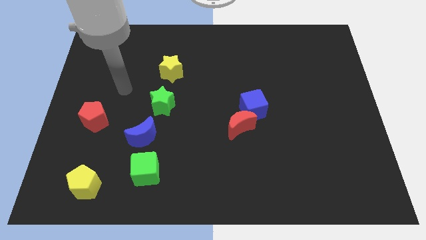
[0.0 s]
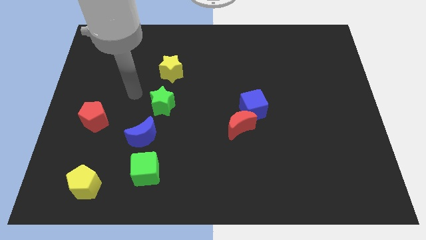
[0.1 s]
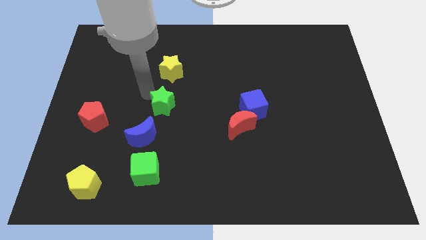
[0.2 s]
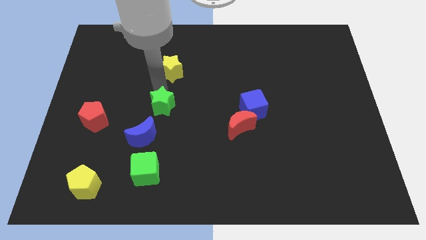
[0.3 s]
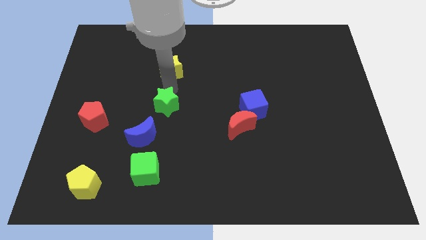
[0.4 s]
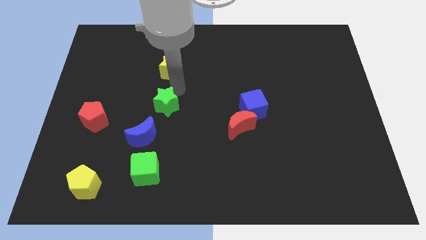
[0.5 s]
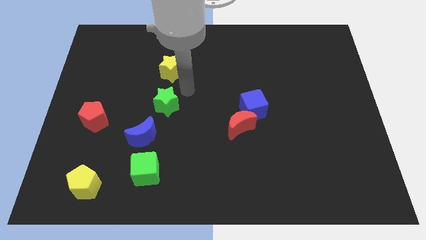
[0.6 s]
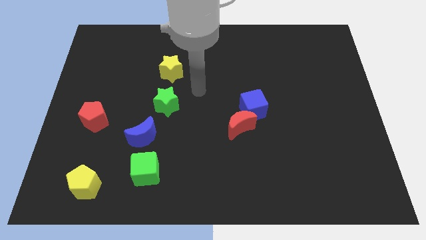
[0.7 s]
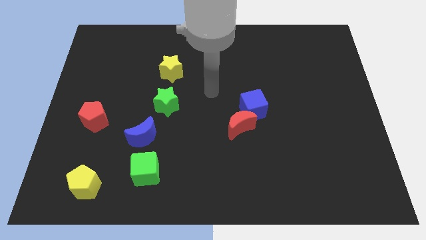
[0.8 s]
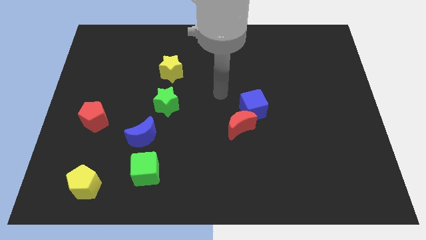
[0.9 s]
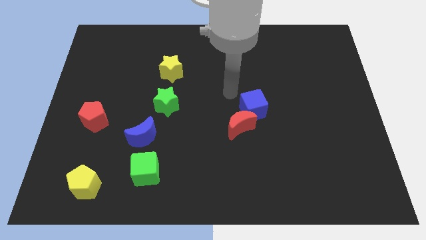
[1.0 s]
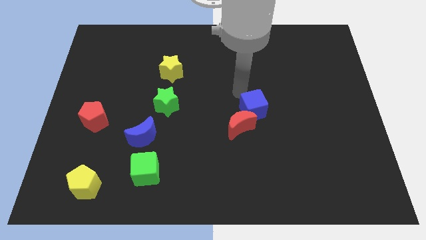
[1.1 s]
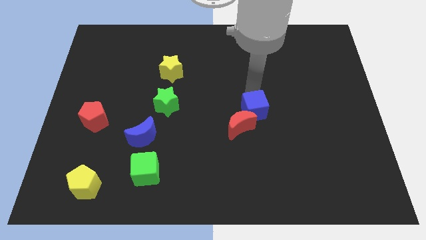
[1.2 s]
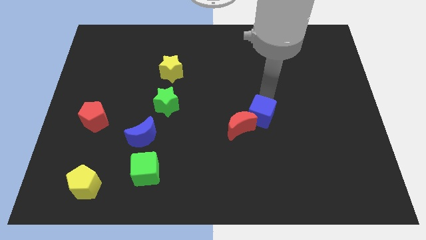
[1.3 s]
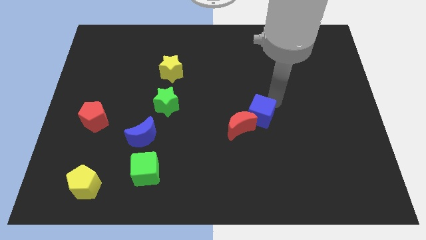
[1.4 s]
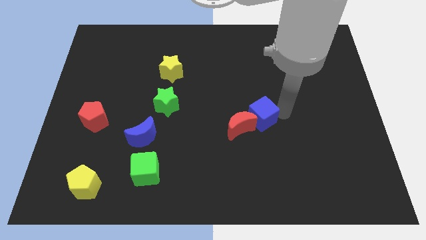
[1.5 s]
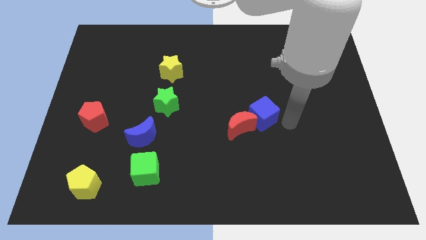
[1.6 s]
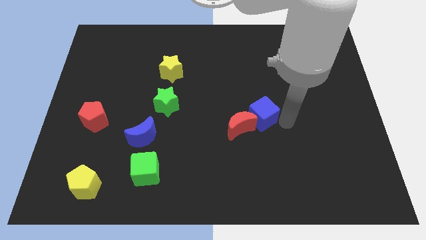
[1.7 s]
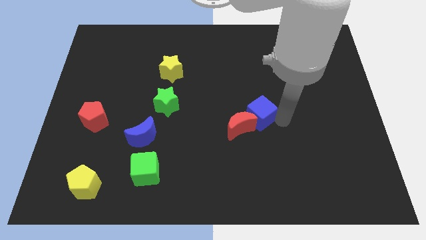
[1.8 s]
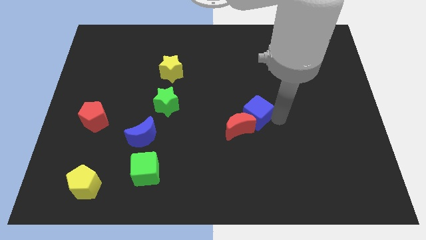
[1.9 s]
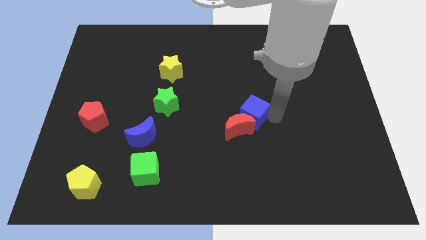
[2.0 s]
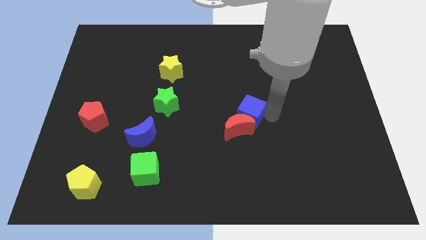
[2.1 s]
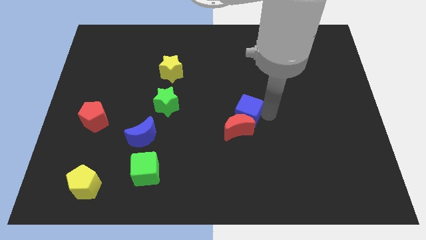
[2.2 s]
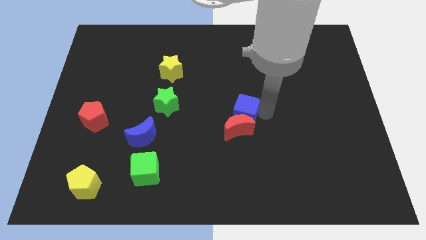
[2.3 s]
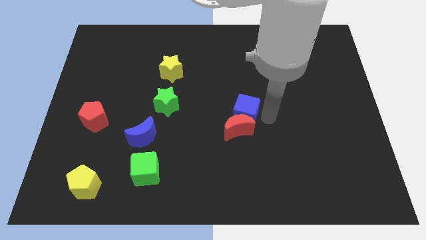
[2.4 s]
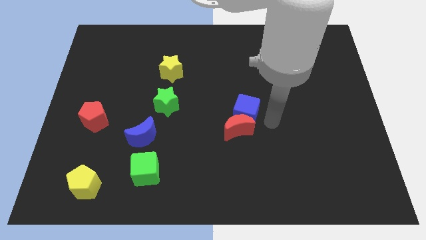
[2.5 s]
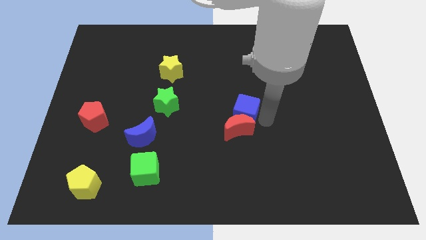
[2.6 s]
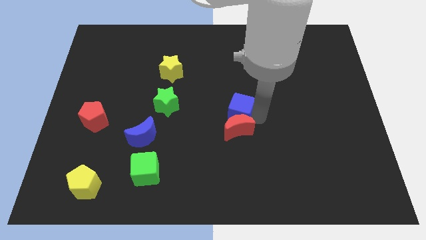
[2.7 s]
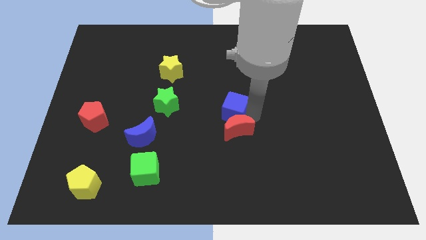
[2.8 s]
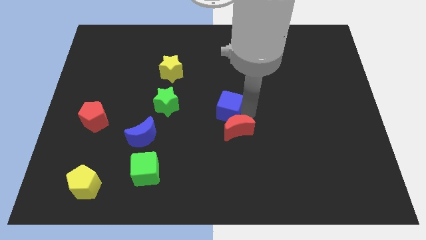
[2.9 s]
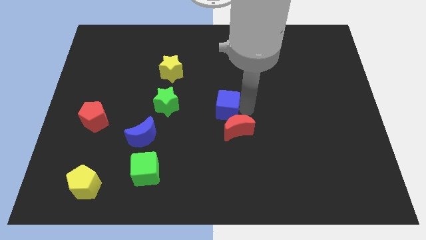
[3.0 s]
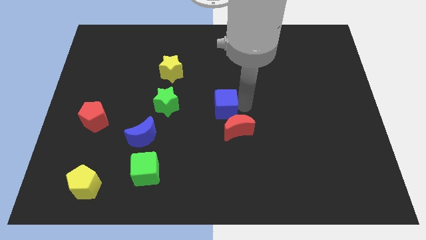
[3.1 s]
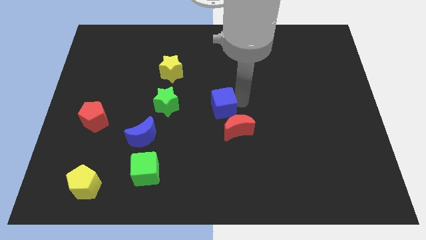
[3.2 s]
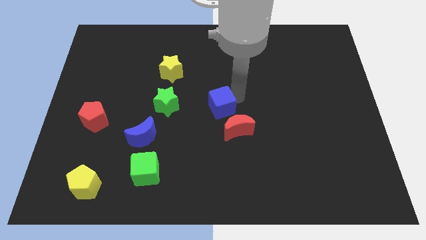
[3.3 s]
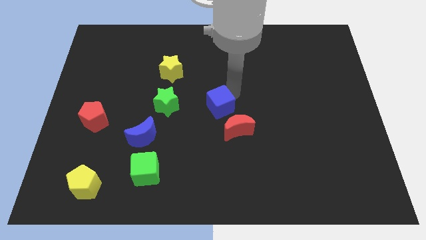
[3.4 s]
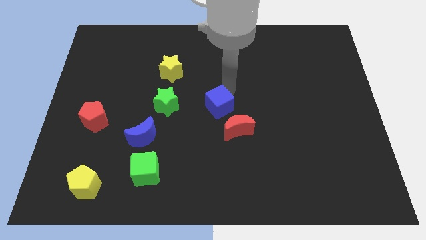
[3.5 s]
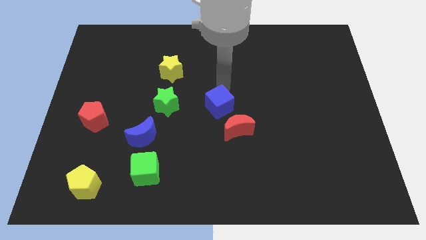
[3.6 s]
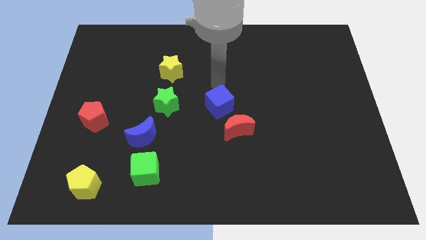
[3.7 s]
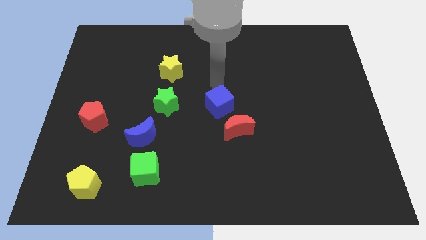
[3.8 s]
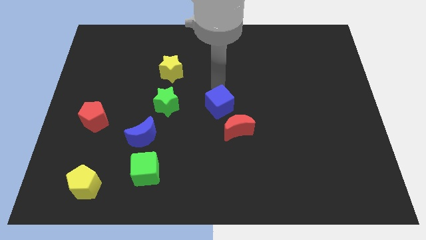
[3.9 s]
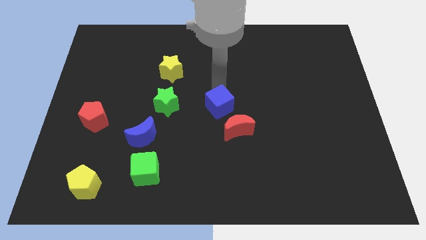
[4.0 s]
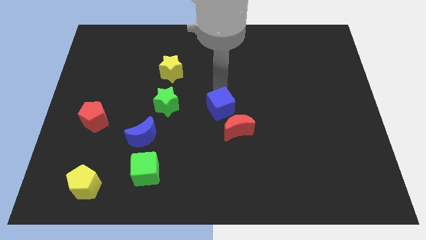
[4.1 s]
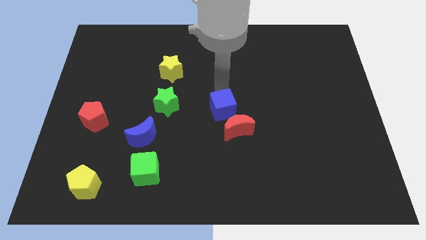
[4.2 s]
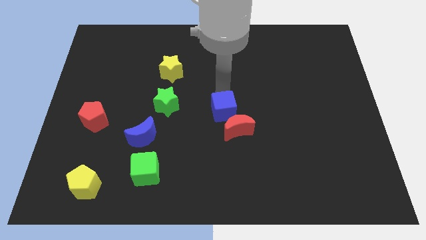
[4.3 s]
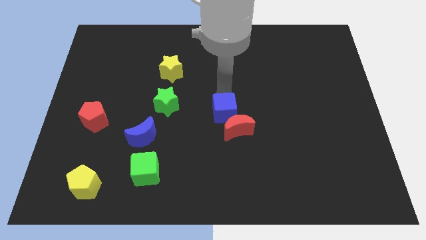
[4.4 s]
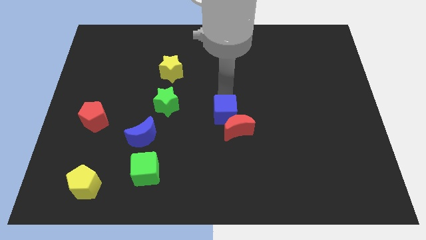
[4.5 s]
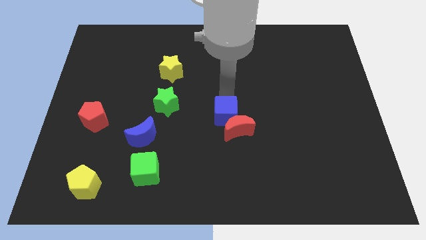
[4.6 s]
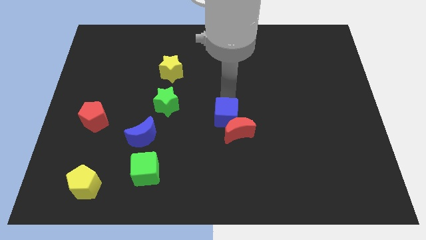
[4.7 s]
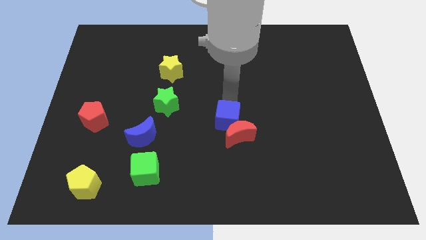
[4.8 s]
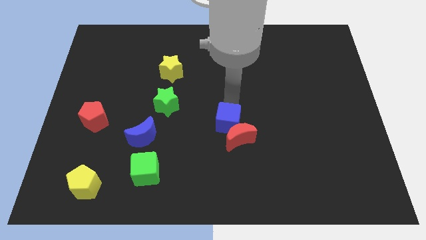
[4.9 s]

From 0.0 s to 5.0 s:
slightly push the blue cube down and left diagonally

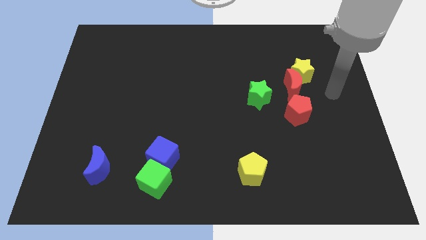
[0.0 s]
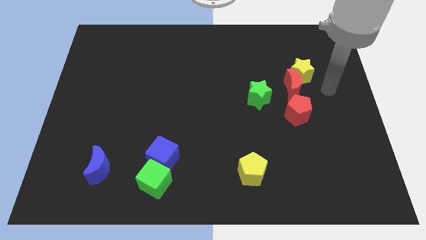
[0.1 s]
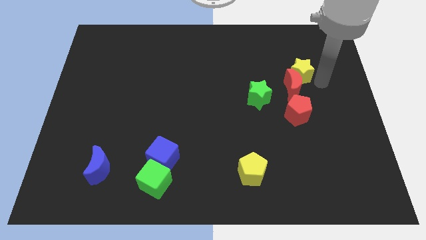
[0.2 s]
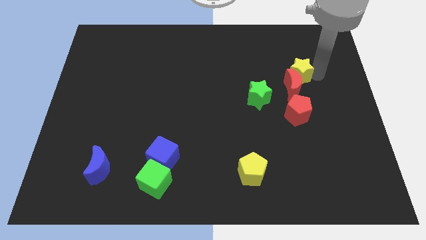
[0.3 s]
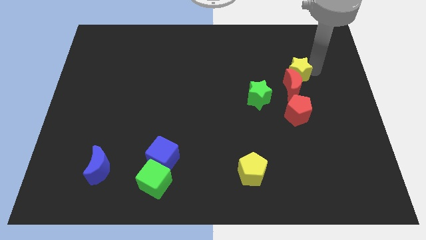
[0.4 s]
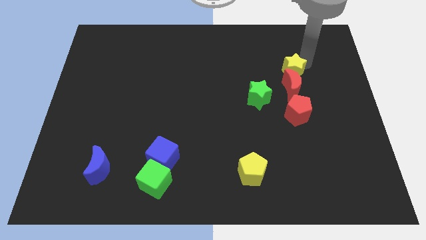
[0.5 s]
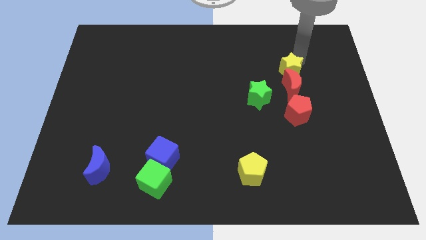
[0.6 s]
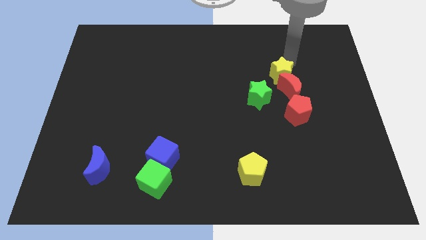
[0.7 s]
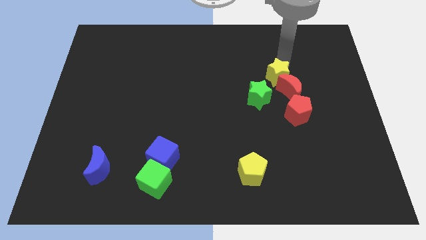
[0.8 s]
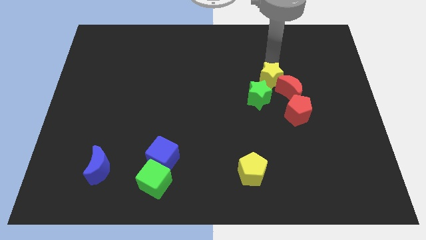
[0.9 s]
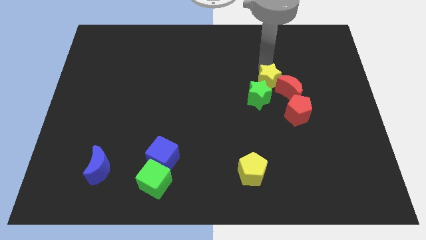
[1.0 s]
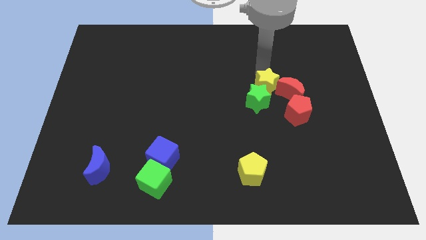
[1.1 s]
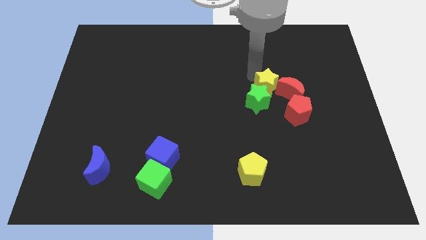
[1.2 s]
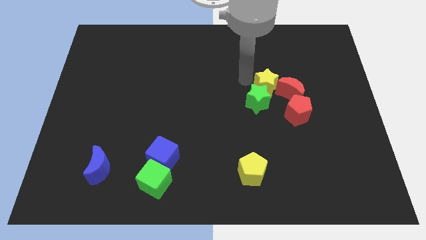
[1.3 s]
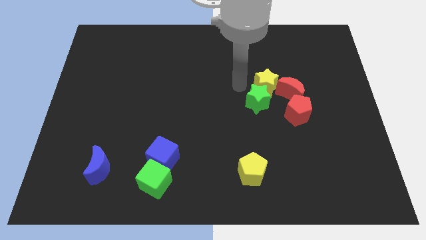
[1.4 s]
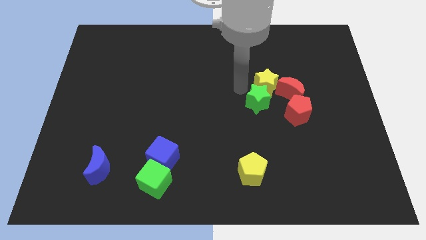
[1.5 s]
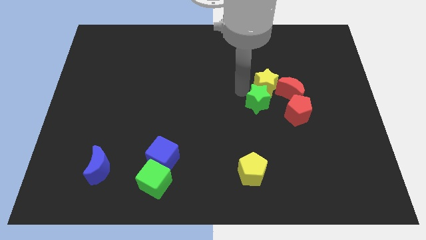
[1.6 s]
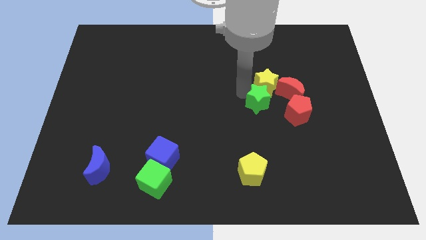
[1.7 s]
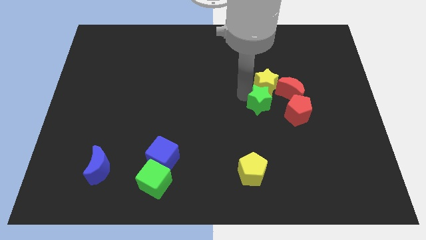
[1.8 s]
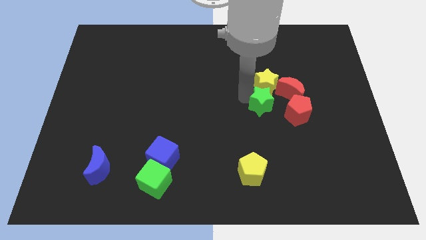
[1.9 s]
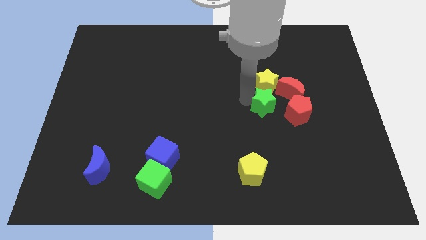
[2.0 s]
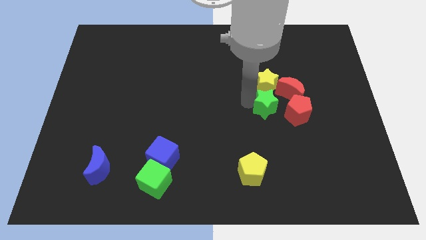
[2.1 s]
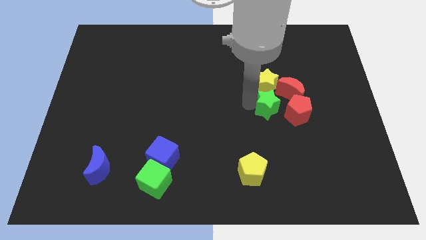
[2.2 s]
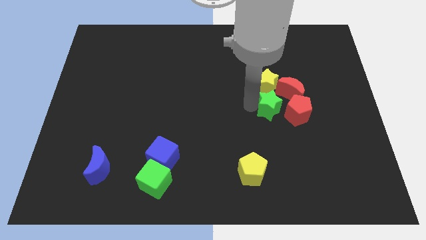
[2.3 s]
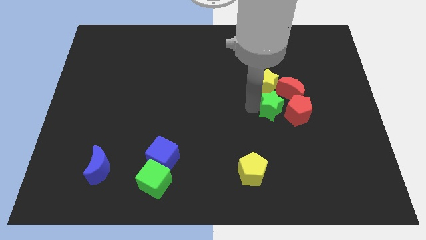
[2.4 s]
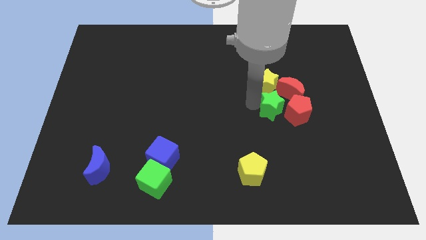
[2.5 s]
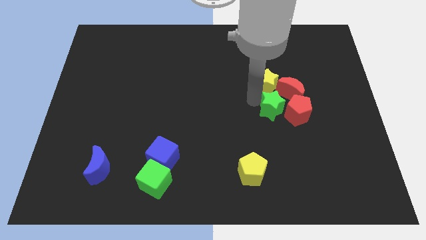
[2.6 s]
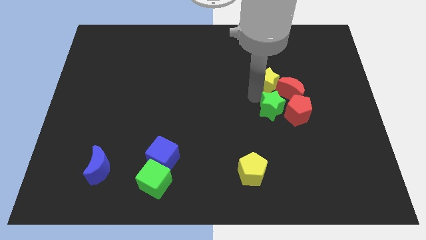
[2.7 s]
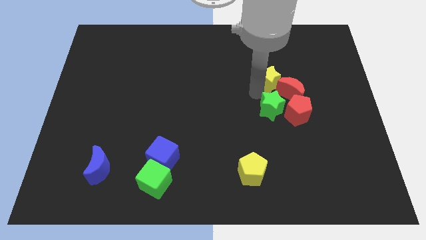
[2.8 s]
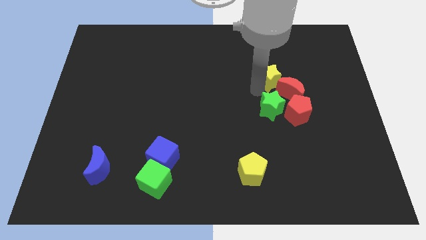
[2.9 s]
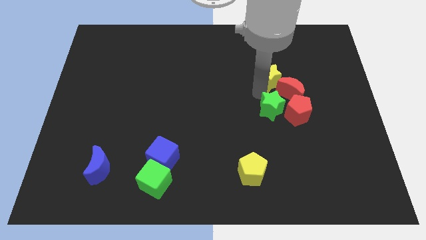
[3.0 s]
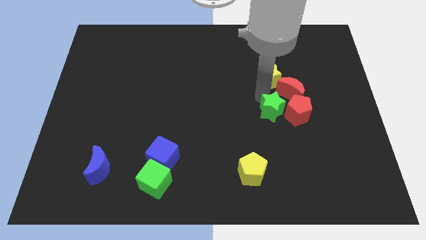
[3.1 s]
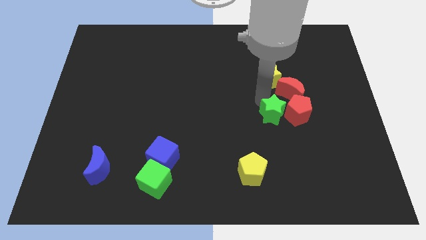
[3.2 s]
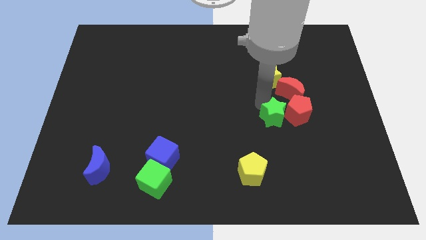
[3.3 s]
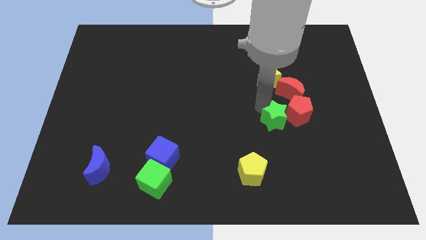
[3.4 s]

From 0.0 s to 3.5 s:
slide the green star down and right diagonally a little
